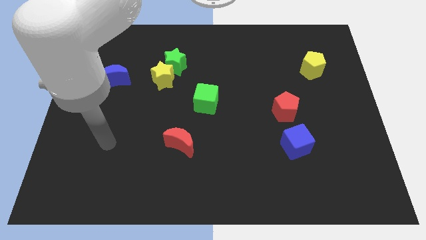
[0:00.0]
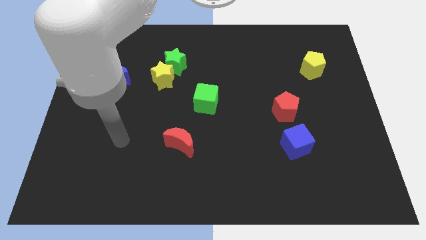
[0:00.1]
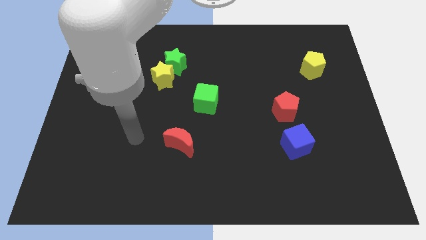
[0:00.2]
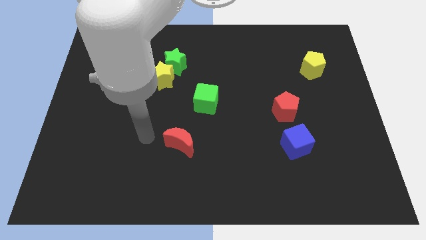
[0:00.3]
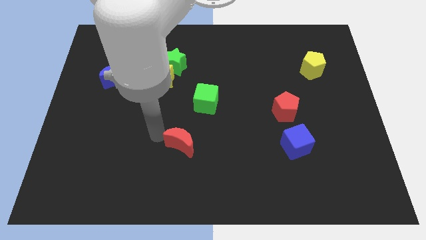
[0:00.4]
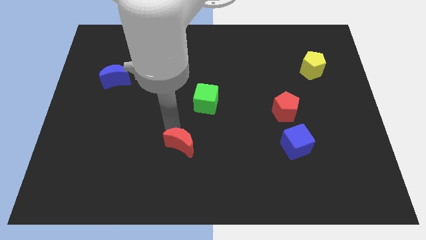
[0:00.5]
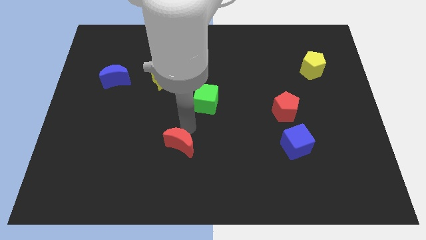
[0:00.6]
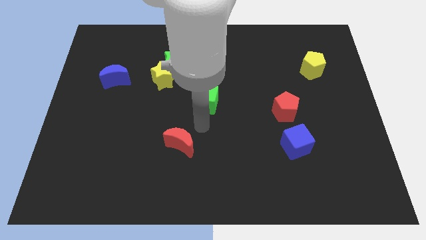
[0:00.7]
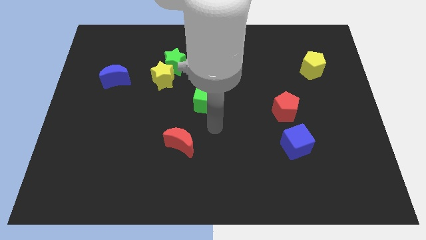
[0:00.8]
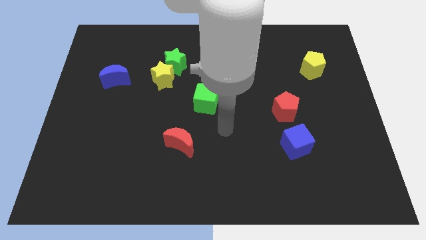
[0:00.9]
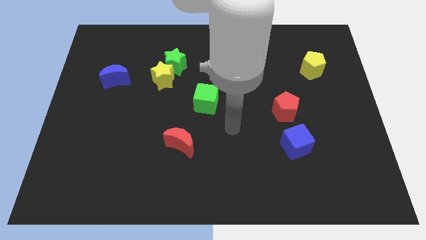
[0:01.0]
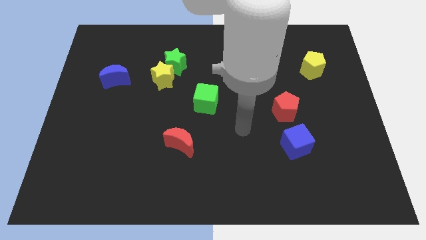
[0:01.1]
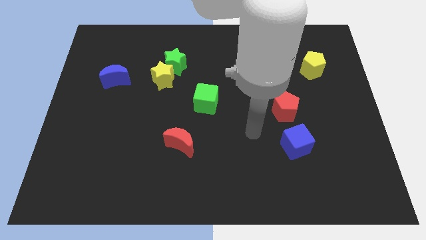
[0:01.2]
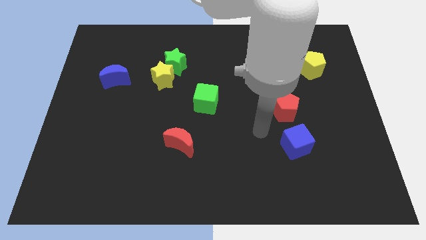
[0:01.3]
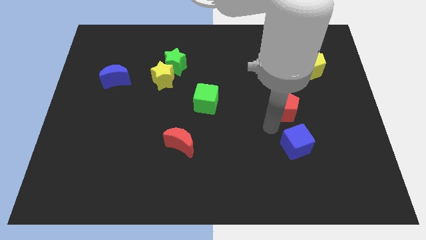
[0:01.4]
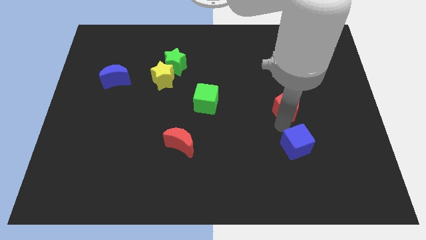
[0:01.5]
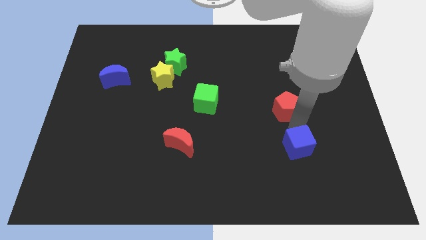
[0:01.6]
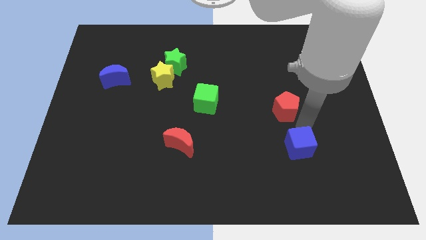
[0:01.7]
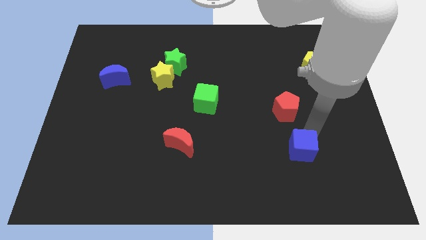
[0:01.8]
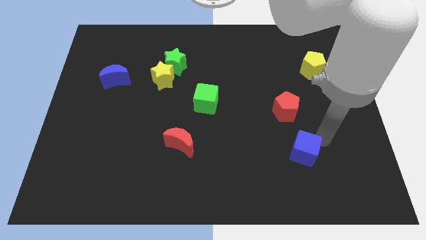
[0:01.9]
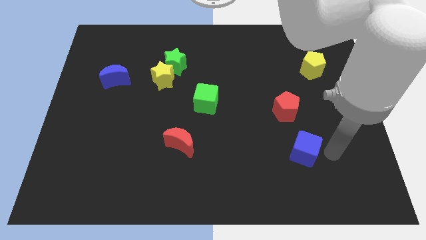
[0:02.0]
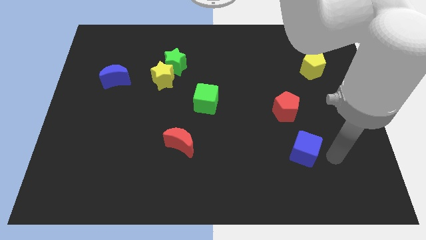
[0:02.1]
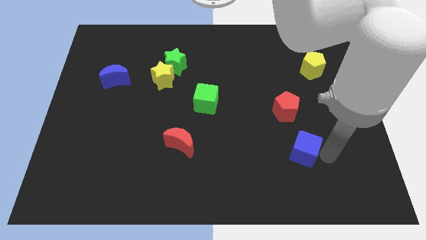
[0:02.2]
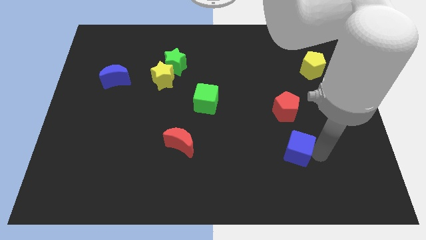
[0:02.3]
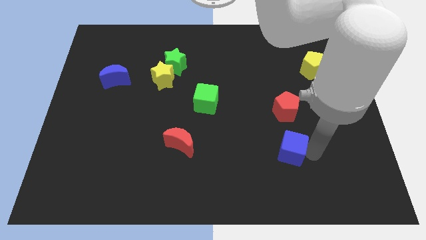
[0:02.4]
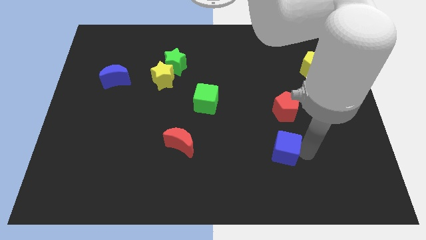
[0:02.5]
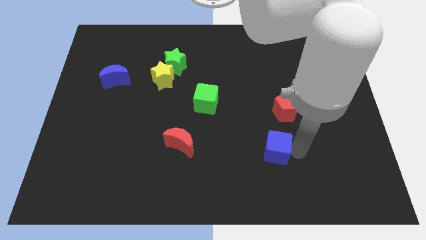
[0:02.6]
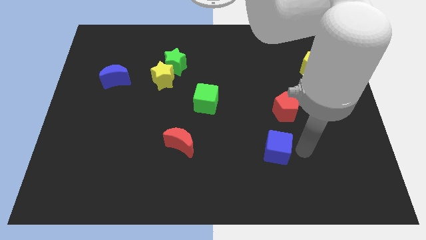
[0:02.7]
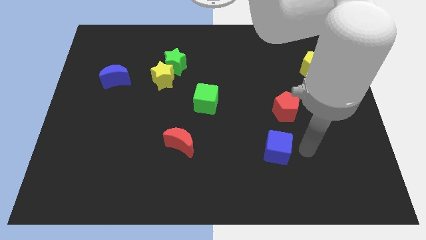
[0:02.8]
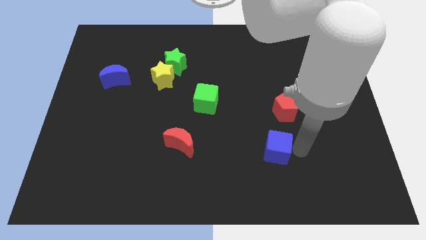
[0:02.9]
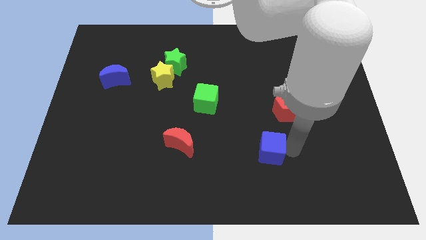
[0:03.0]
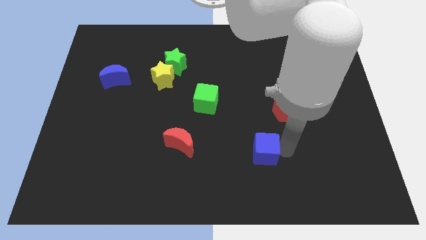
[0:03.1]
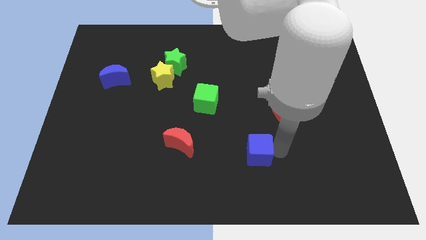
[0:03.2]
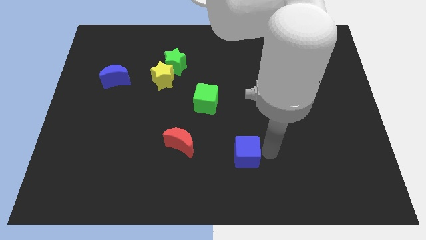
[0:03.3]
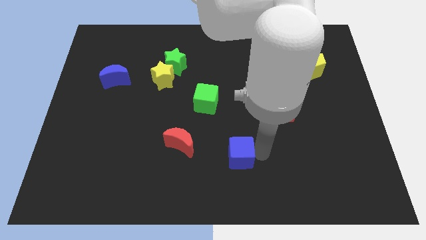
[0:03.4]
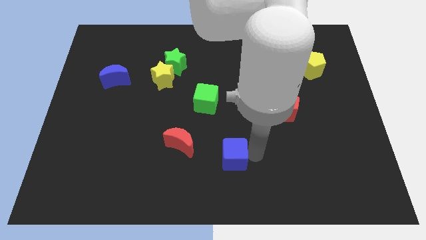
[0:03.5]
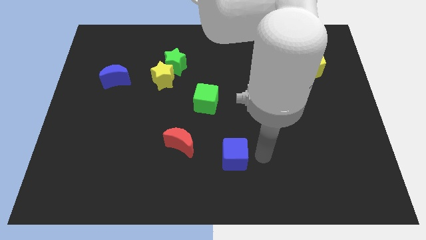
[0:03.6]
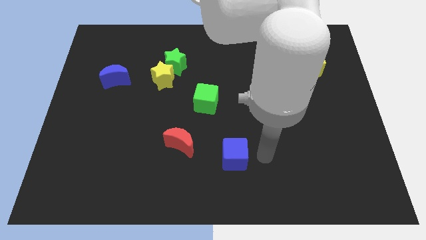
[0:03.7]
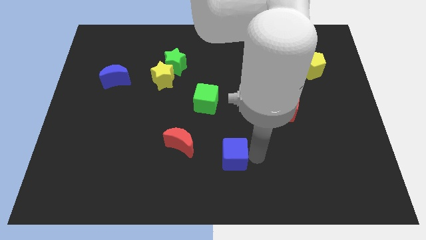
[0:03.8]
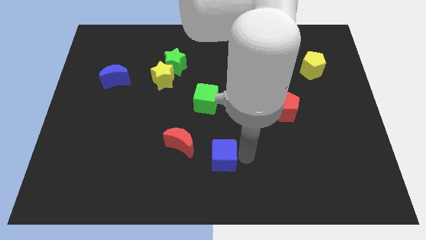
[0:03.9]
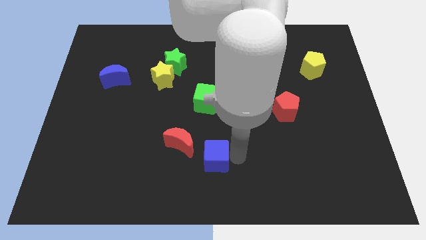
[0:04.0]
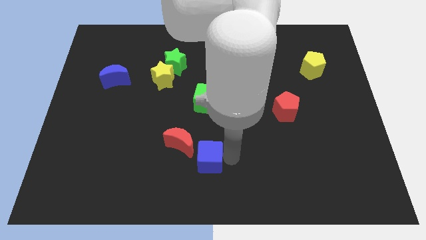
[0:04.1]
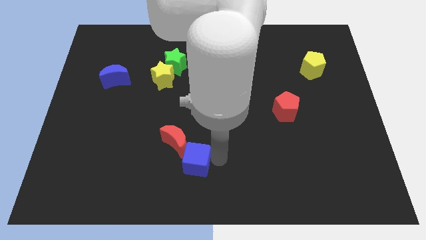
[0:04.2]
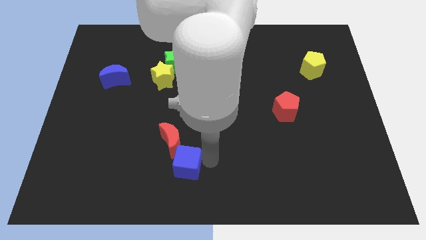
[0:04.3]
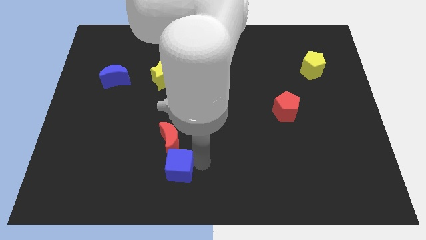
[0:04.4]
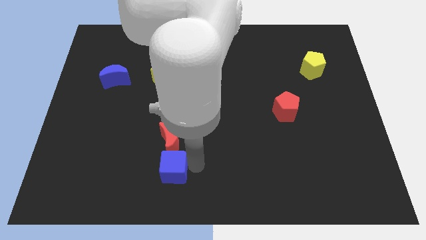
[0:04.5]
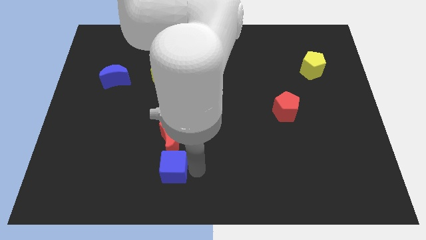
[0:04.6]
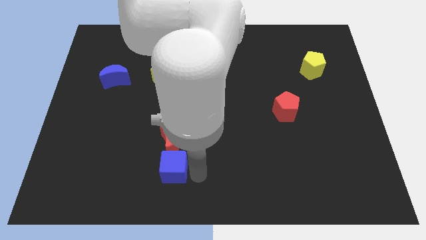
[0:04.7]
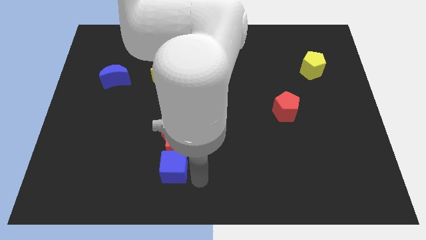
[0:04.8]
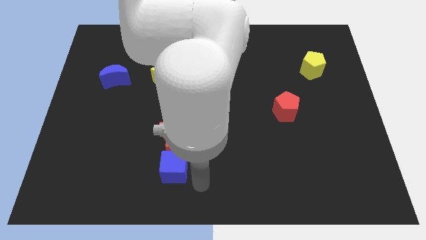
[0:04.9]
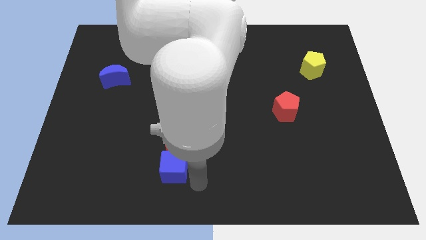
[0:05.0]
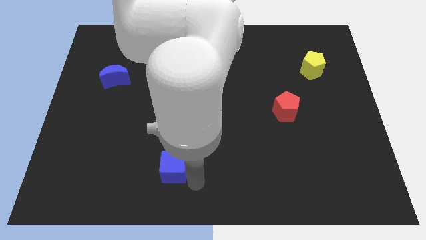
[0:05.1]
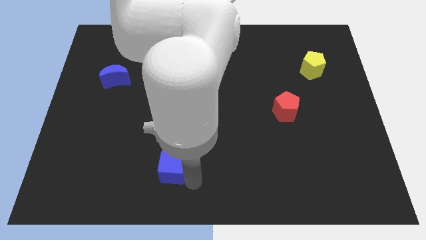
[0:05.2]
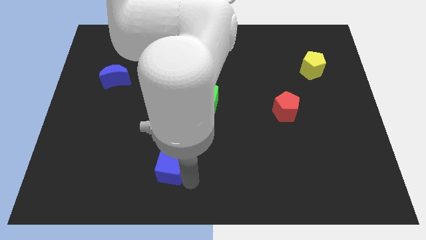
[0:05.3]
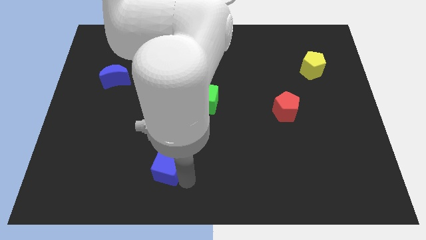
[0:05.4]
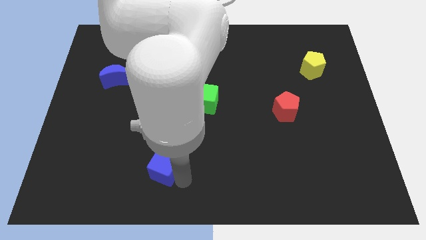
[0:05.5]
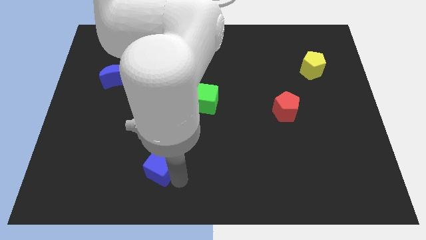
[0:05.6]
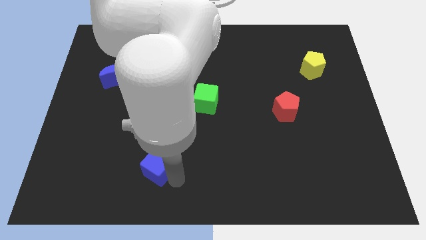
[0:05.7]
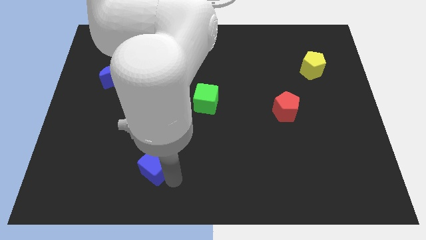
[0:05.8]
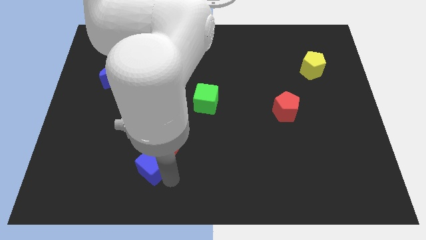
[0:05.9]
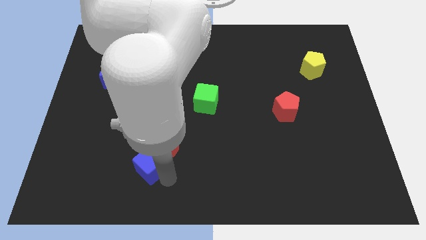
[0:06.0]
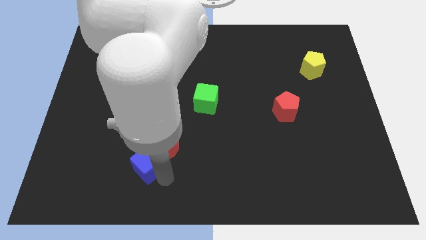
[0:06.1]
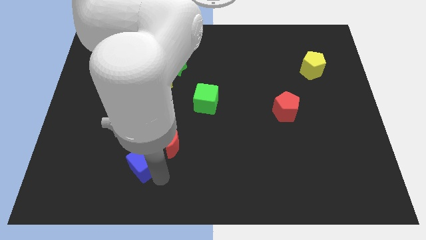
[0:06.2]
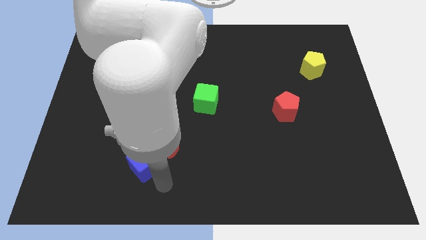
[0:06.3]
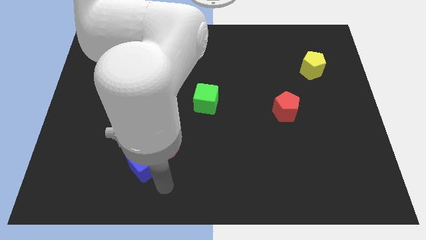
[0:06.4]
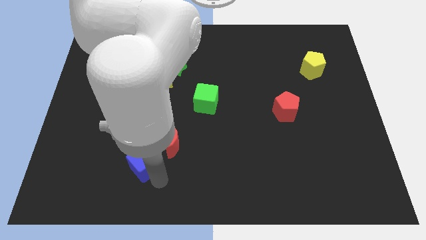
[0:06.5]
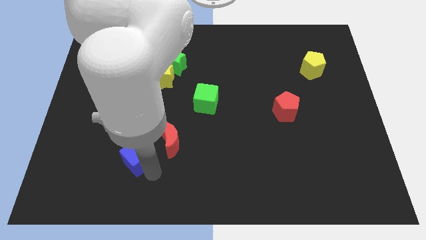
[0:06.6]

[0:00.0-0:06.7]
slide the blue cube left of the red moon

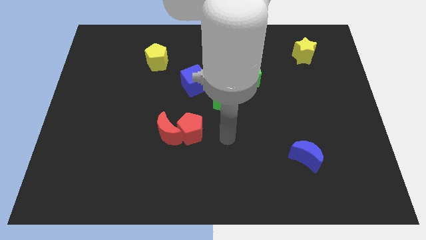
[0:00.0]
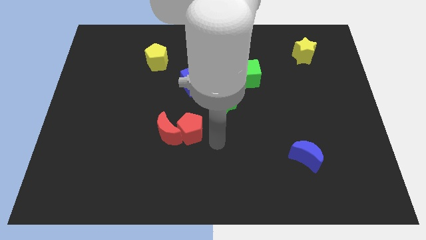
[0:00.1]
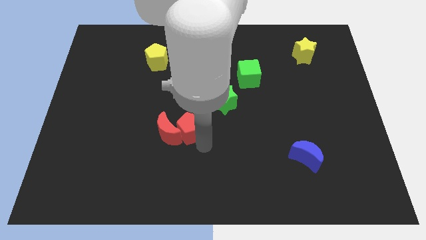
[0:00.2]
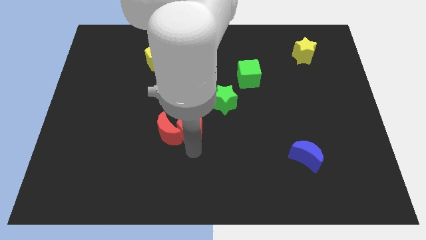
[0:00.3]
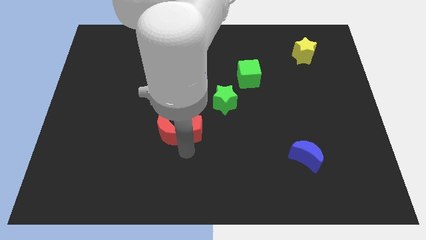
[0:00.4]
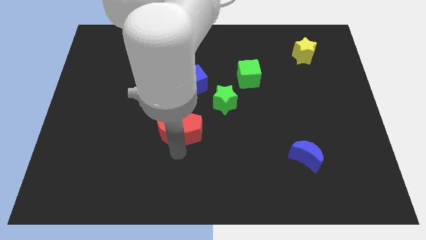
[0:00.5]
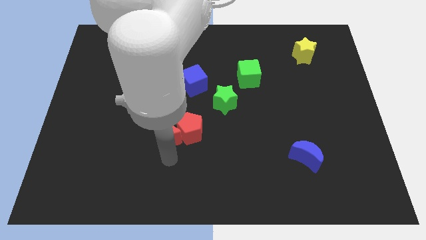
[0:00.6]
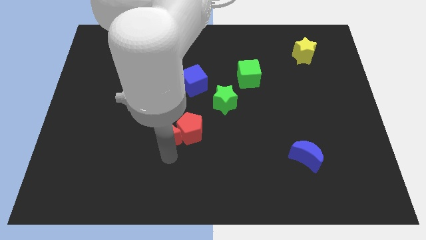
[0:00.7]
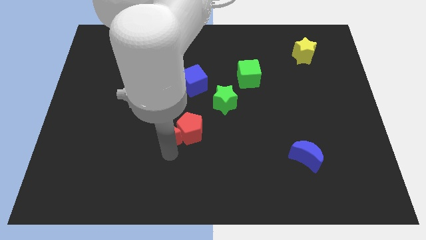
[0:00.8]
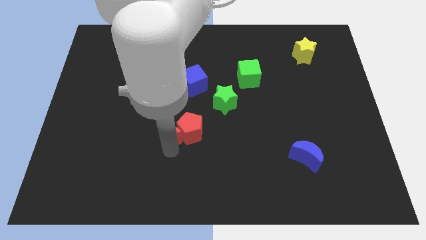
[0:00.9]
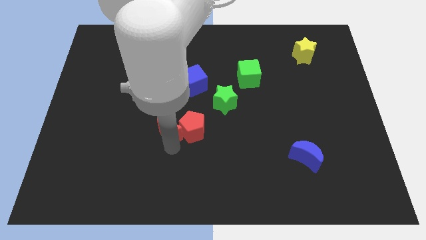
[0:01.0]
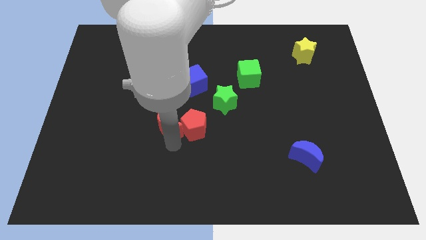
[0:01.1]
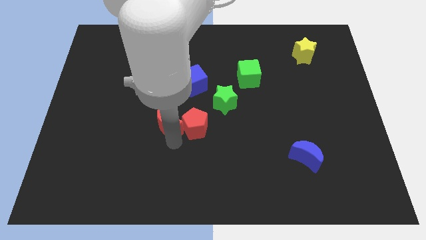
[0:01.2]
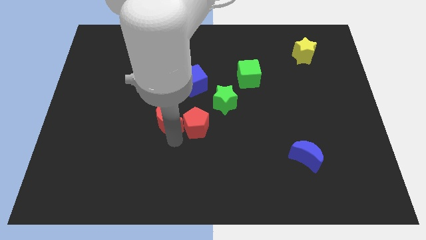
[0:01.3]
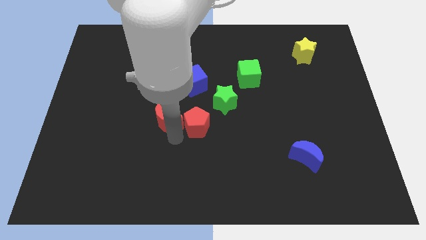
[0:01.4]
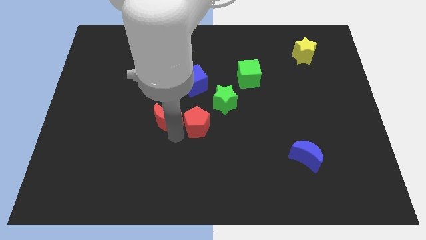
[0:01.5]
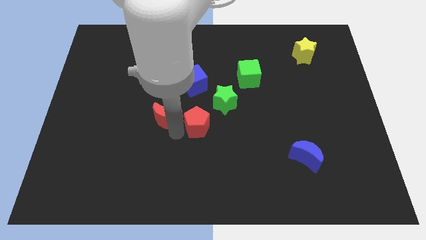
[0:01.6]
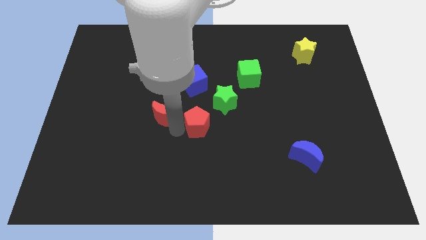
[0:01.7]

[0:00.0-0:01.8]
slide the red moon diagonally down and to the left of the blue cube
